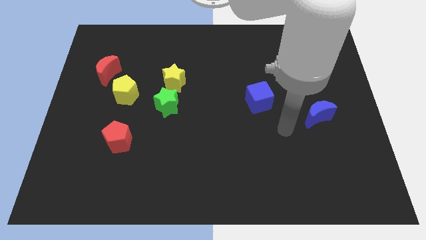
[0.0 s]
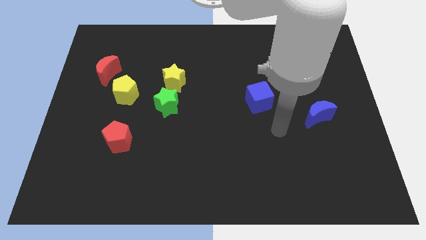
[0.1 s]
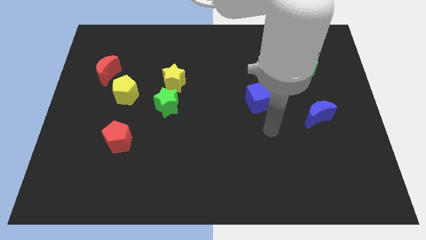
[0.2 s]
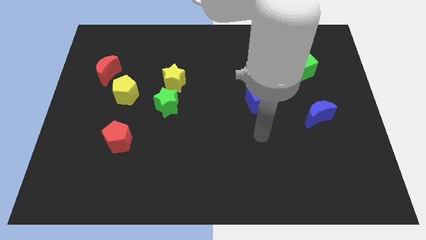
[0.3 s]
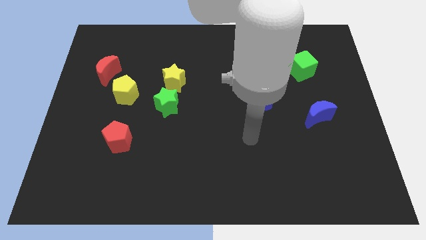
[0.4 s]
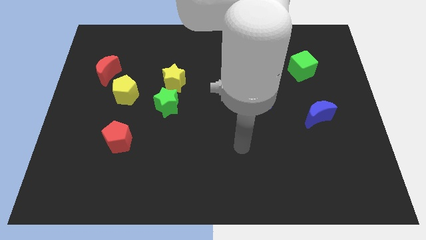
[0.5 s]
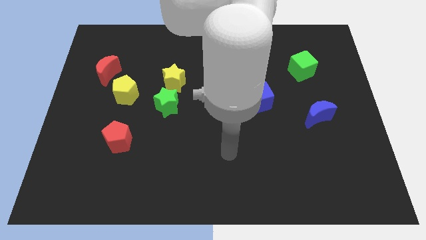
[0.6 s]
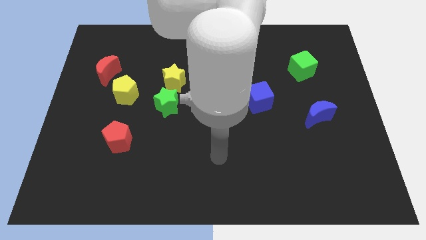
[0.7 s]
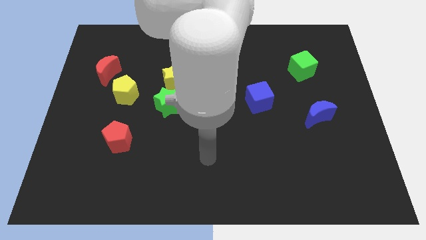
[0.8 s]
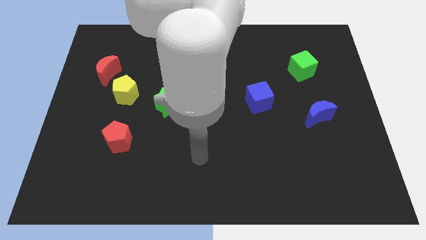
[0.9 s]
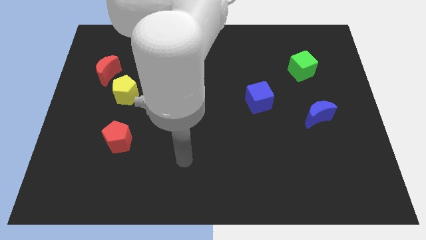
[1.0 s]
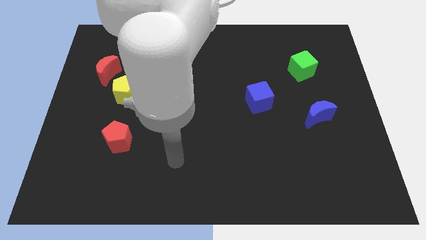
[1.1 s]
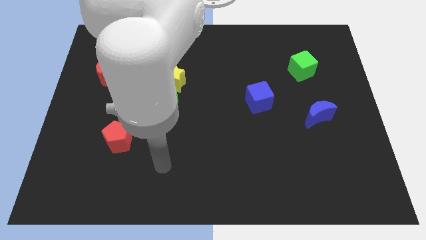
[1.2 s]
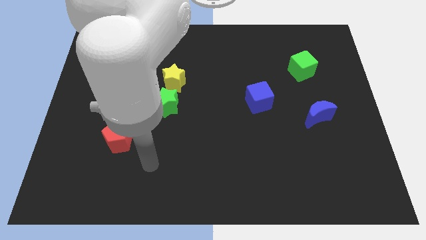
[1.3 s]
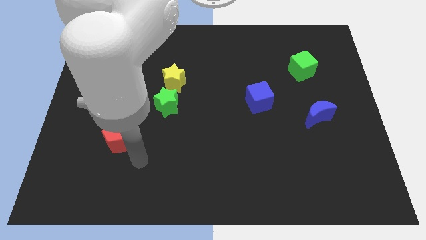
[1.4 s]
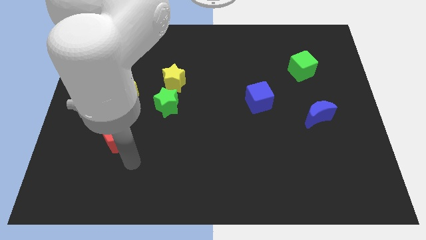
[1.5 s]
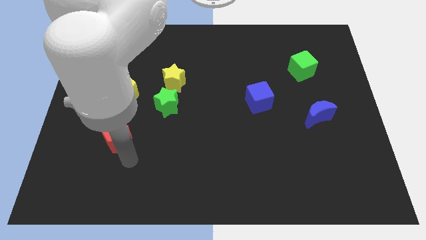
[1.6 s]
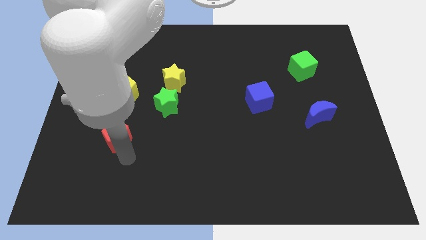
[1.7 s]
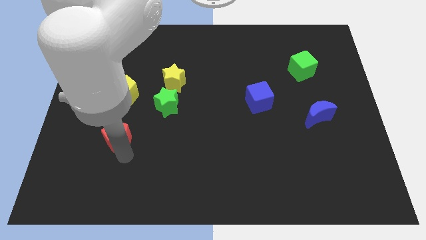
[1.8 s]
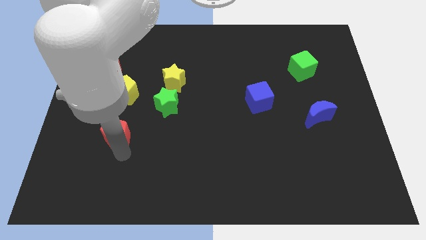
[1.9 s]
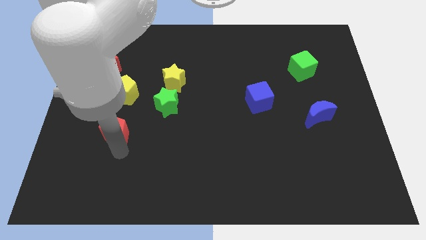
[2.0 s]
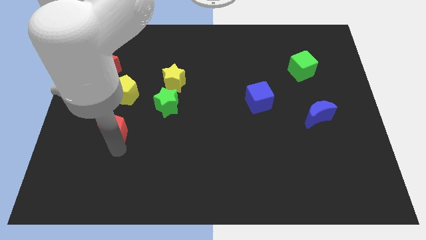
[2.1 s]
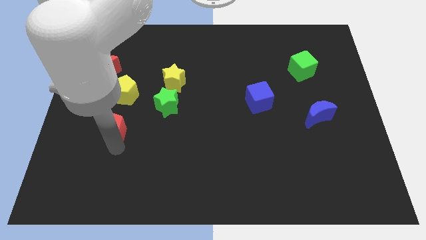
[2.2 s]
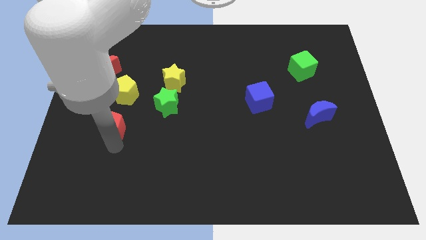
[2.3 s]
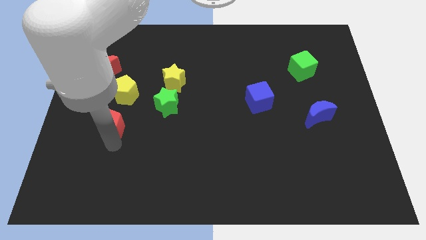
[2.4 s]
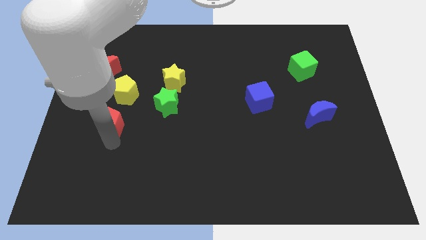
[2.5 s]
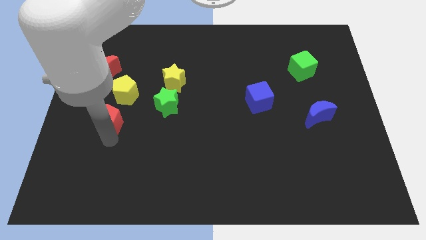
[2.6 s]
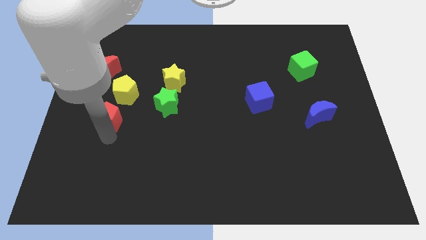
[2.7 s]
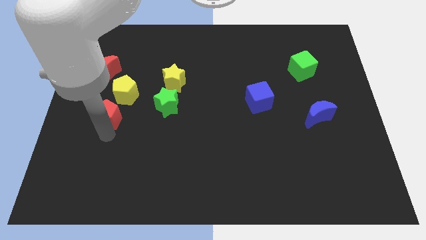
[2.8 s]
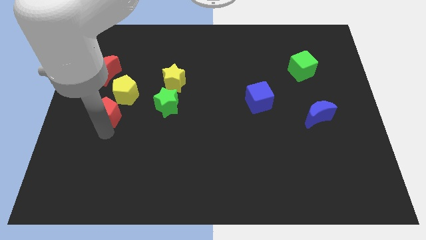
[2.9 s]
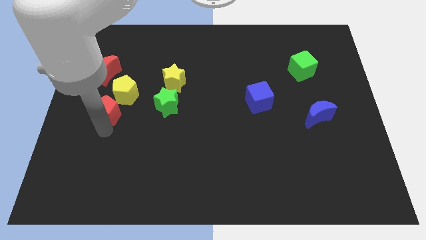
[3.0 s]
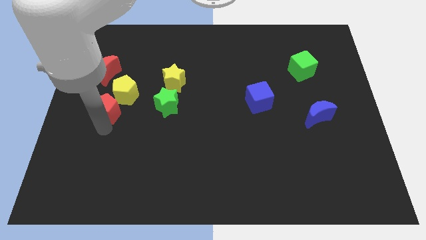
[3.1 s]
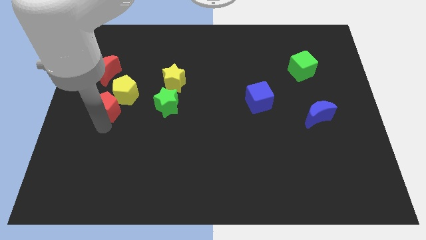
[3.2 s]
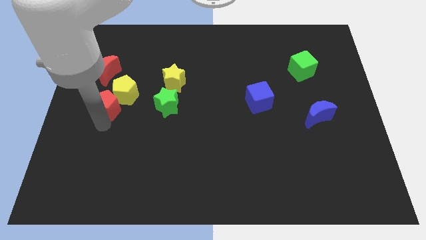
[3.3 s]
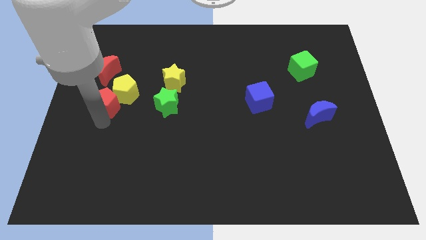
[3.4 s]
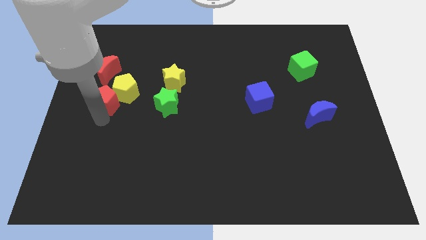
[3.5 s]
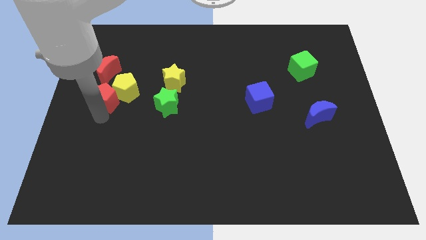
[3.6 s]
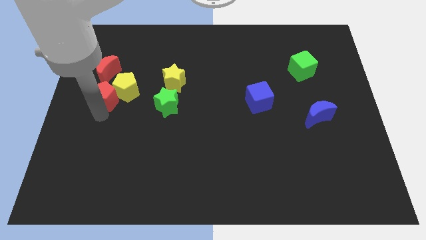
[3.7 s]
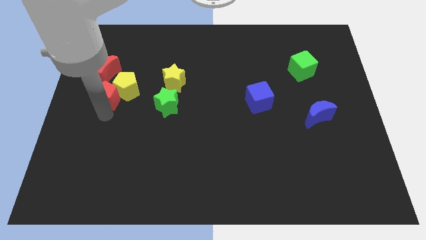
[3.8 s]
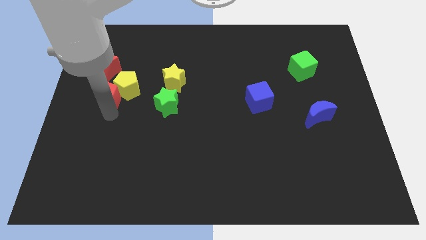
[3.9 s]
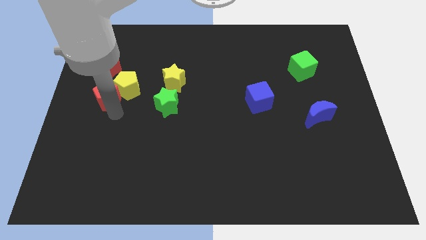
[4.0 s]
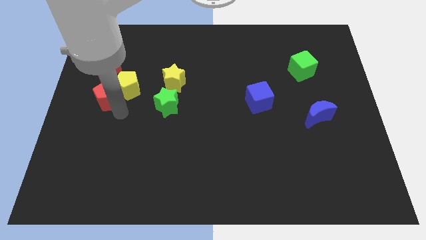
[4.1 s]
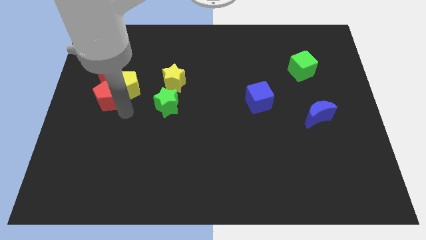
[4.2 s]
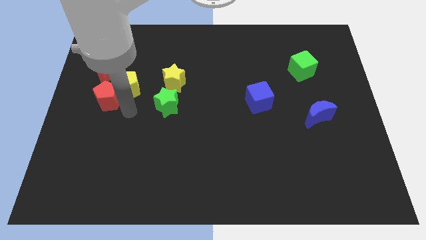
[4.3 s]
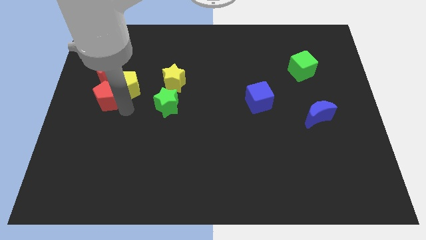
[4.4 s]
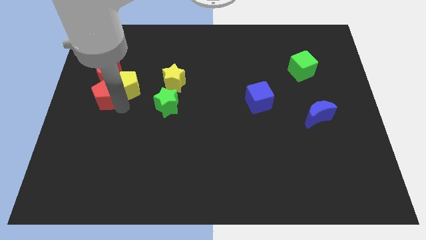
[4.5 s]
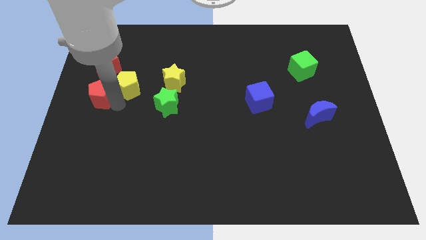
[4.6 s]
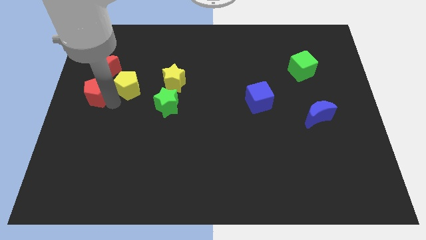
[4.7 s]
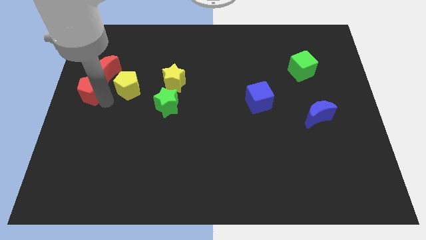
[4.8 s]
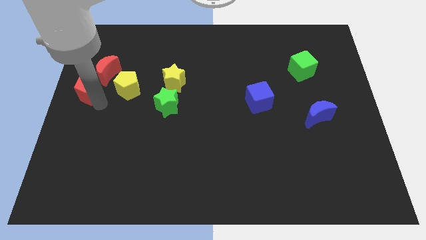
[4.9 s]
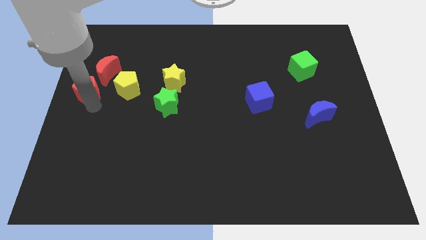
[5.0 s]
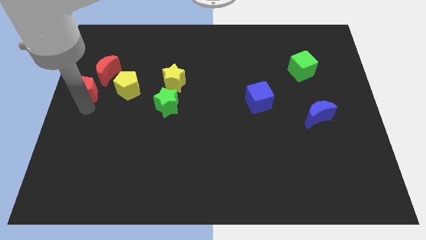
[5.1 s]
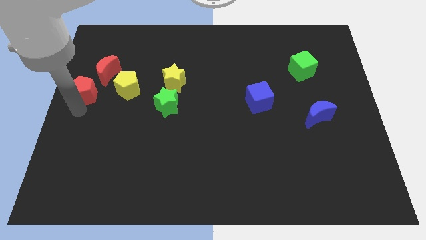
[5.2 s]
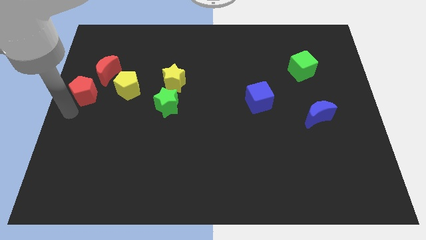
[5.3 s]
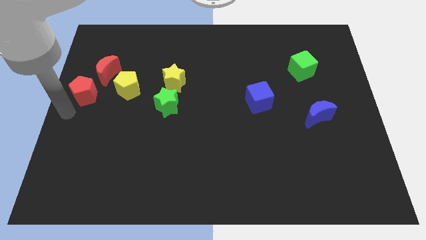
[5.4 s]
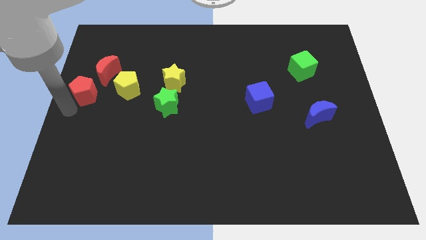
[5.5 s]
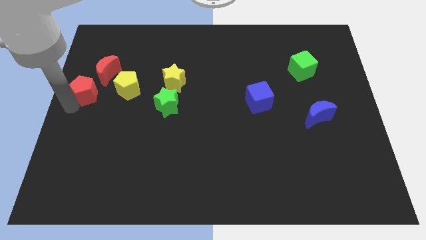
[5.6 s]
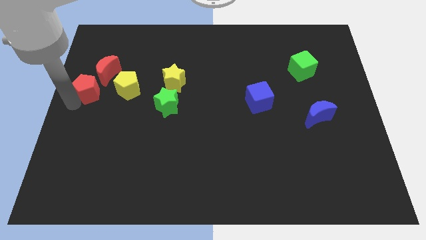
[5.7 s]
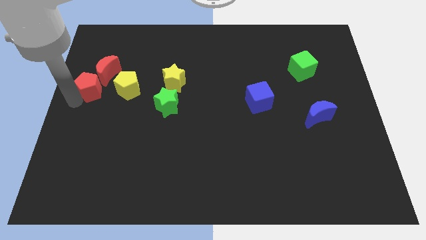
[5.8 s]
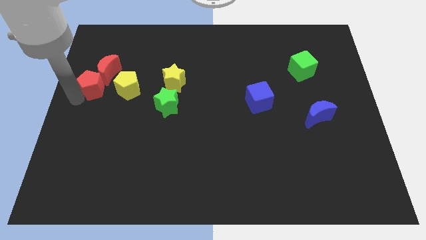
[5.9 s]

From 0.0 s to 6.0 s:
move the red pentagon towards the red moon

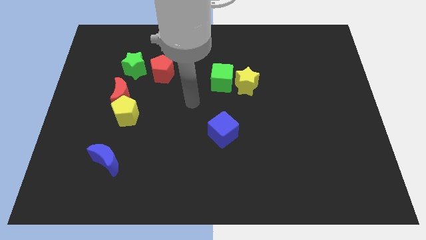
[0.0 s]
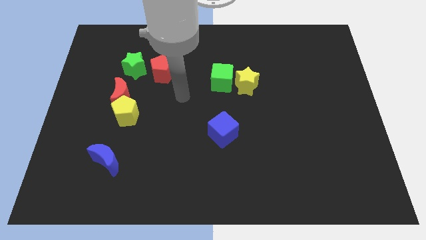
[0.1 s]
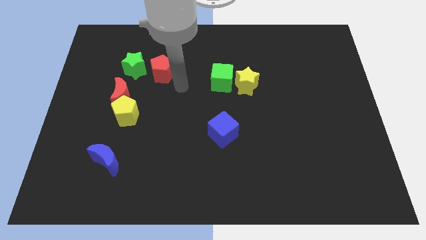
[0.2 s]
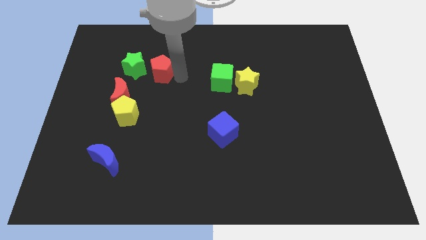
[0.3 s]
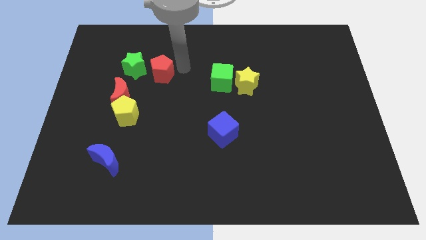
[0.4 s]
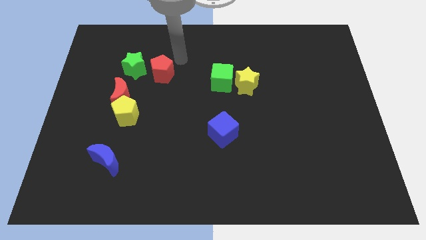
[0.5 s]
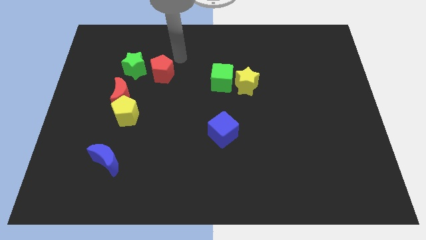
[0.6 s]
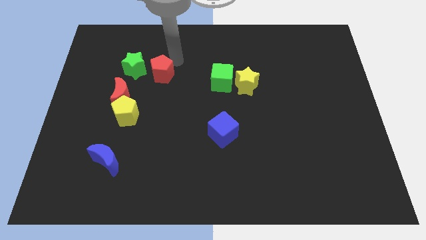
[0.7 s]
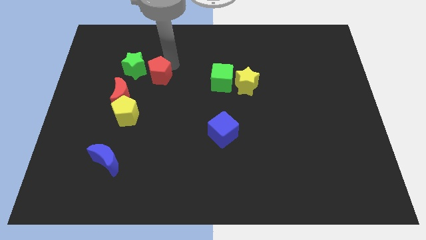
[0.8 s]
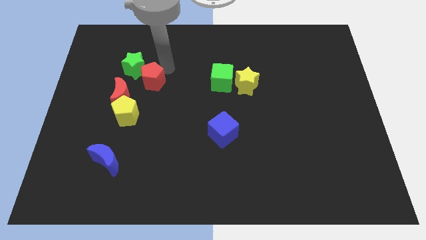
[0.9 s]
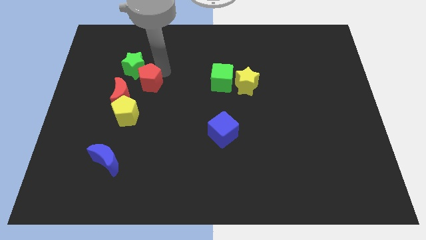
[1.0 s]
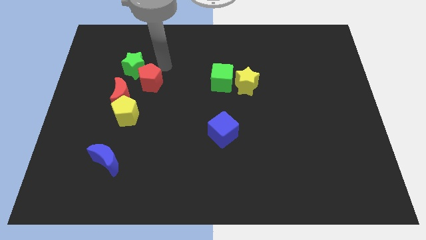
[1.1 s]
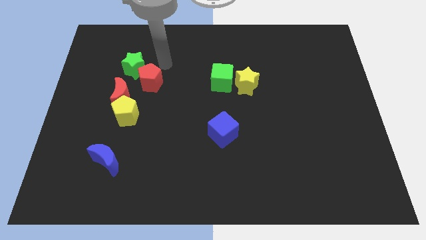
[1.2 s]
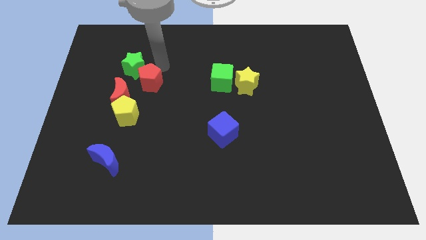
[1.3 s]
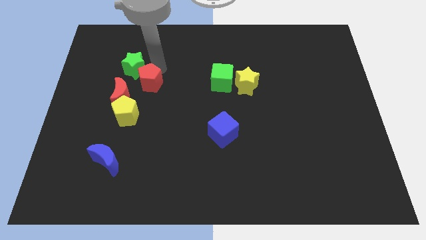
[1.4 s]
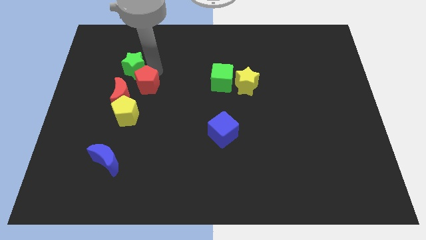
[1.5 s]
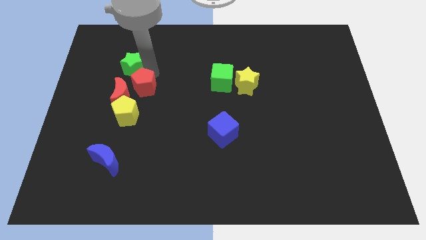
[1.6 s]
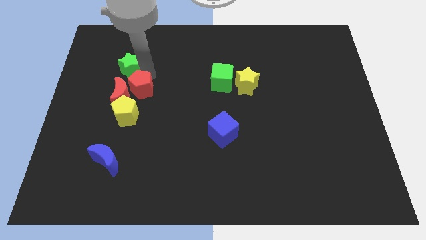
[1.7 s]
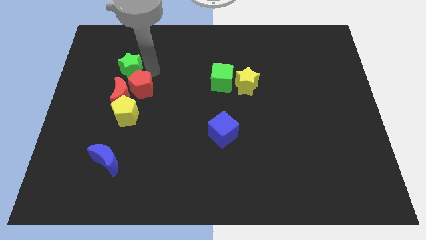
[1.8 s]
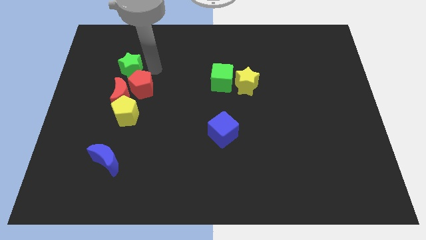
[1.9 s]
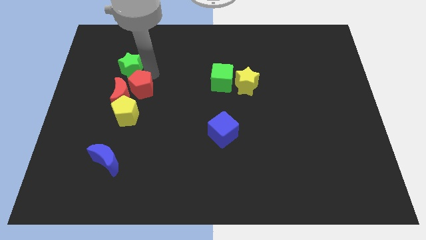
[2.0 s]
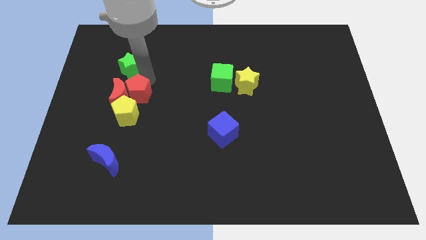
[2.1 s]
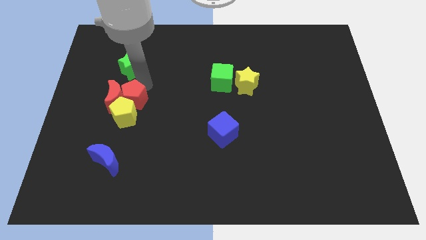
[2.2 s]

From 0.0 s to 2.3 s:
move the red pentagon next to the yellow pentagon
